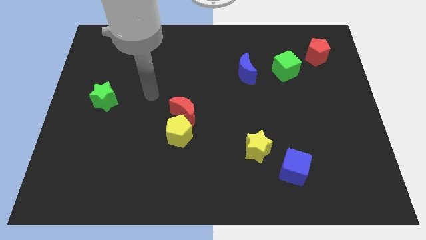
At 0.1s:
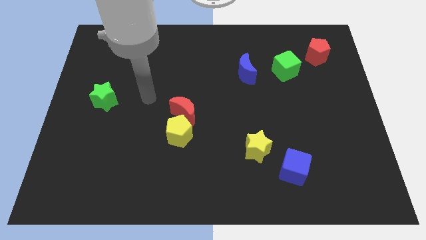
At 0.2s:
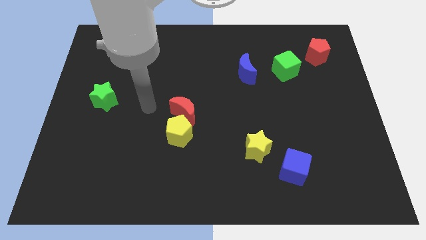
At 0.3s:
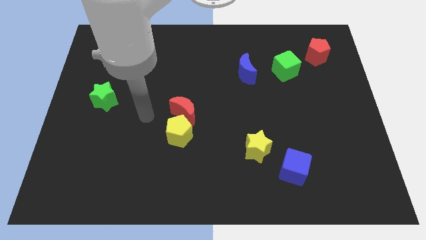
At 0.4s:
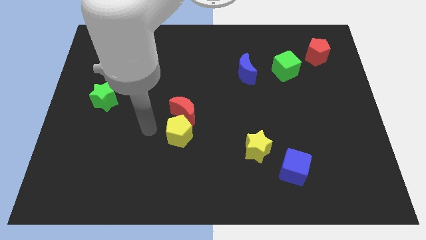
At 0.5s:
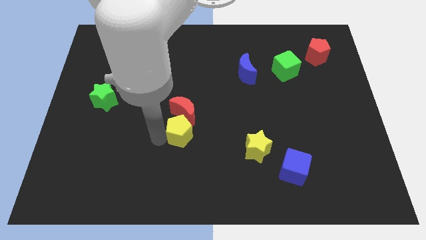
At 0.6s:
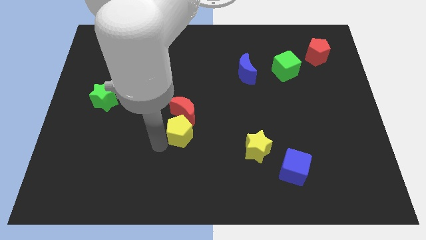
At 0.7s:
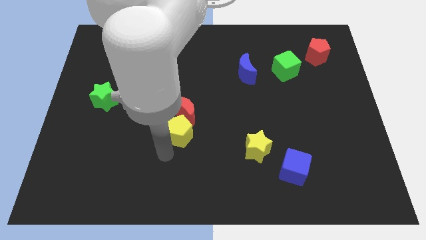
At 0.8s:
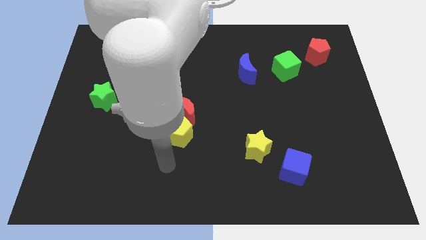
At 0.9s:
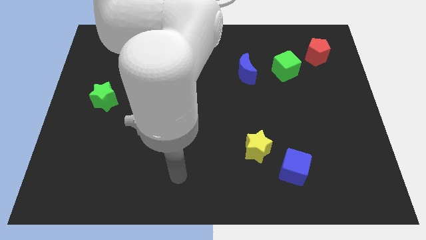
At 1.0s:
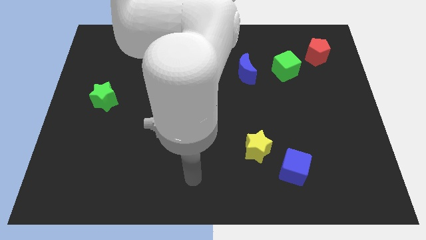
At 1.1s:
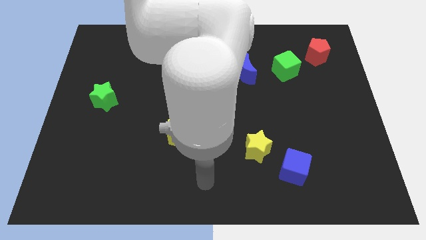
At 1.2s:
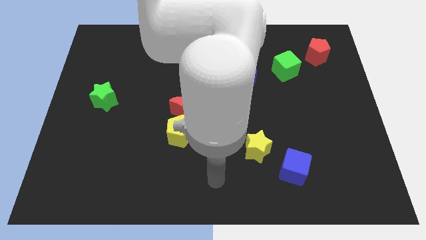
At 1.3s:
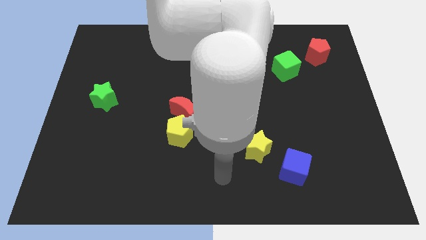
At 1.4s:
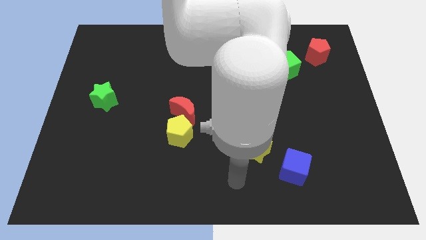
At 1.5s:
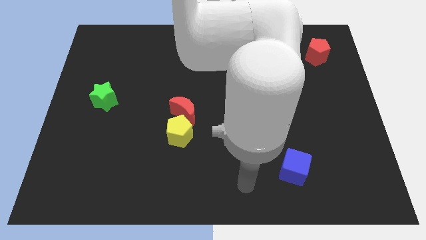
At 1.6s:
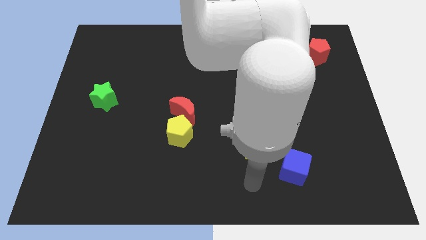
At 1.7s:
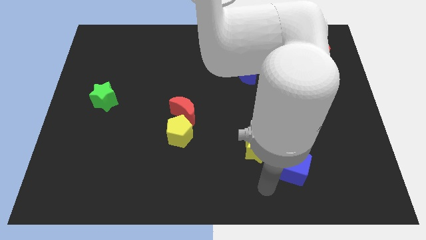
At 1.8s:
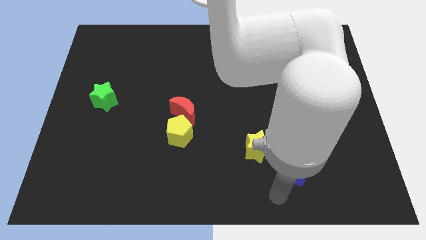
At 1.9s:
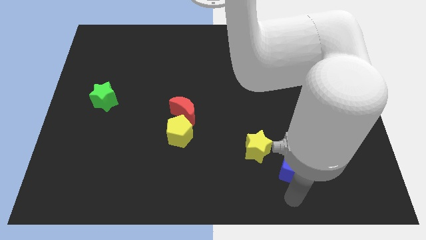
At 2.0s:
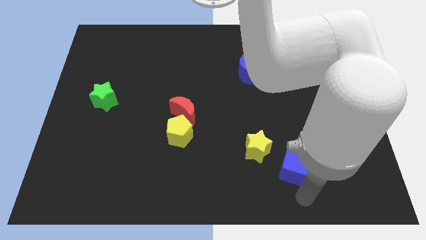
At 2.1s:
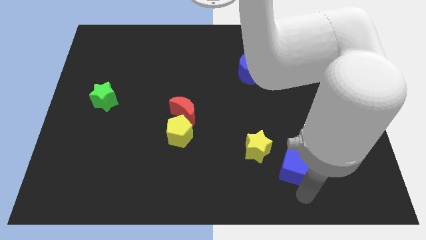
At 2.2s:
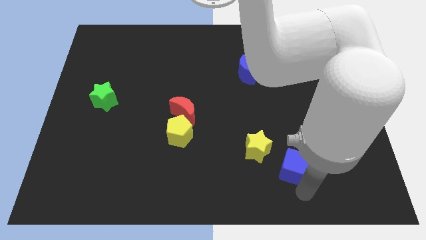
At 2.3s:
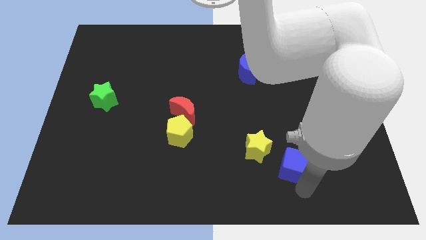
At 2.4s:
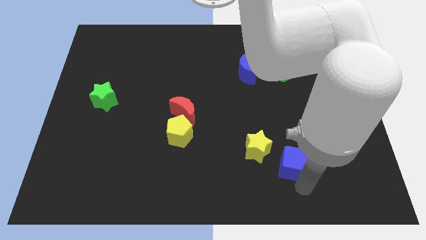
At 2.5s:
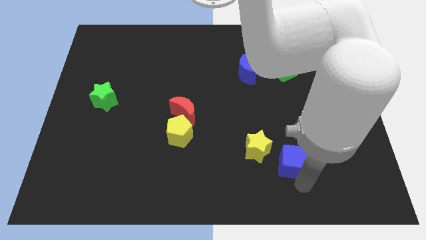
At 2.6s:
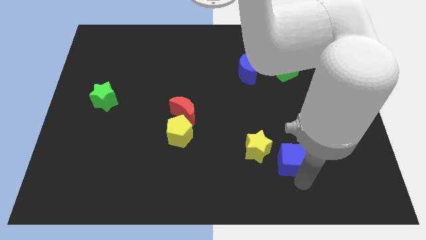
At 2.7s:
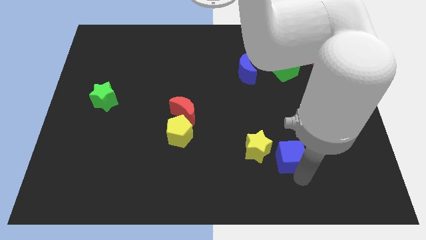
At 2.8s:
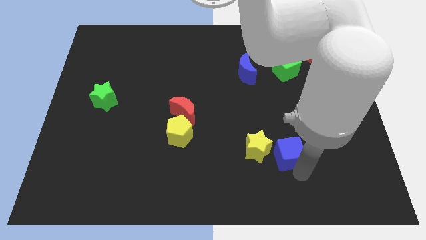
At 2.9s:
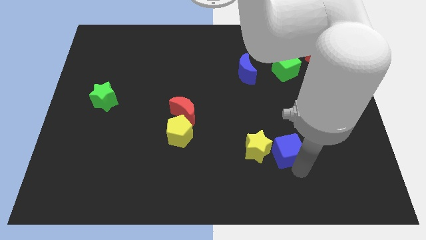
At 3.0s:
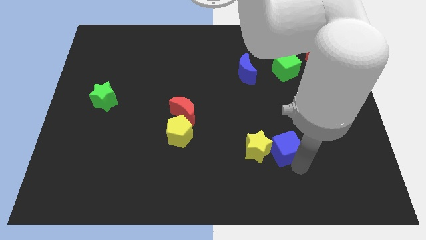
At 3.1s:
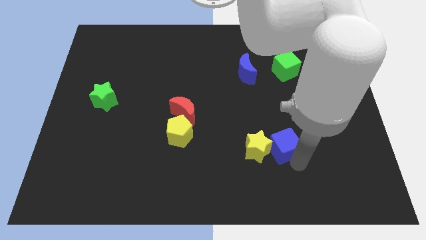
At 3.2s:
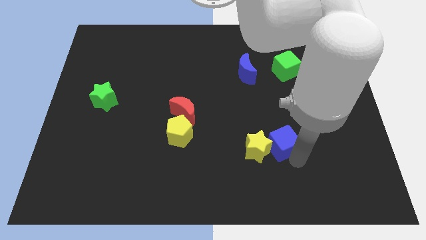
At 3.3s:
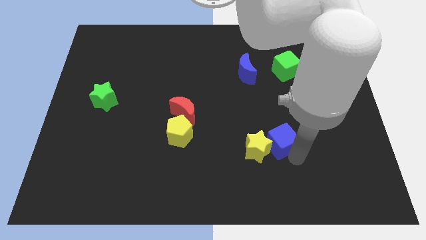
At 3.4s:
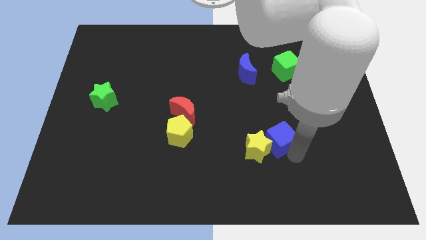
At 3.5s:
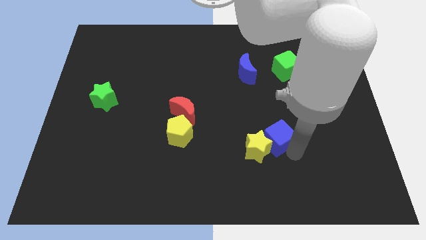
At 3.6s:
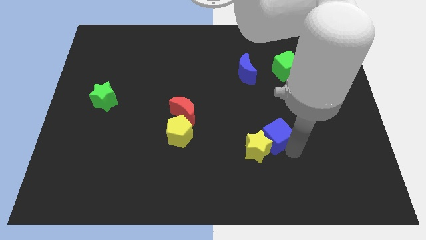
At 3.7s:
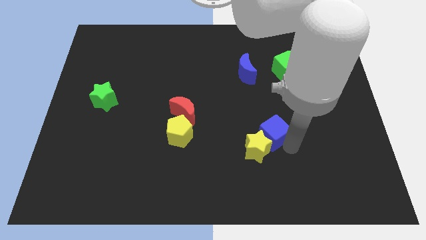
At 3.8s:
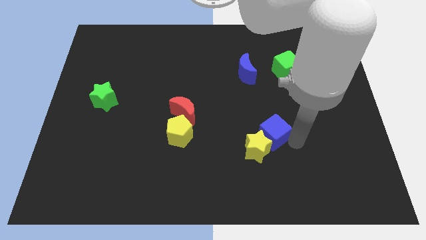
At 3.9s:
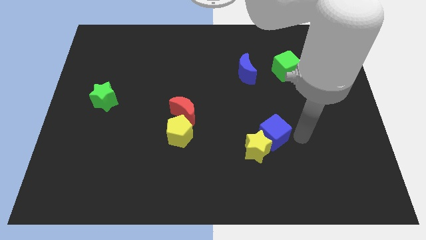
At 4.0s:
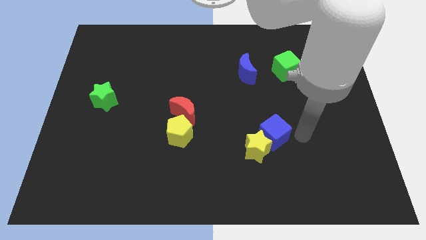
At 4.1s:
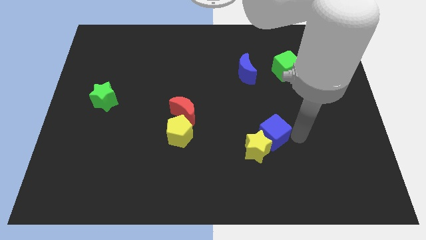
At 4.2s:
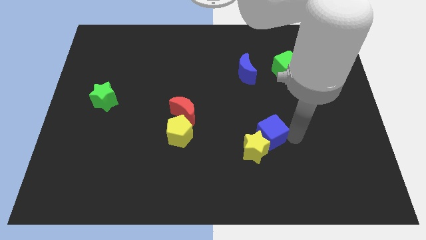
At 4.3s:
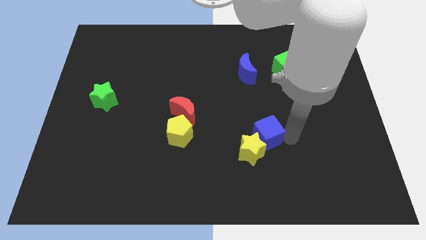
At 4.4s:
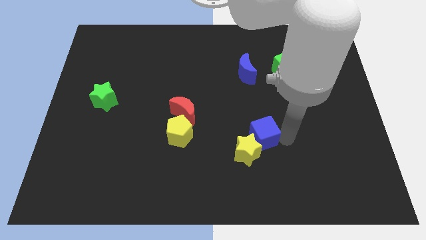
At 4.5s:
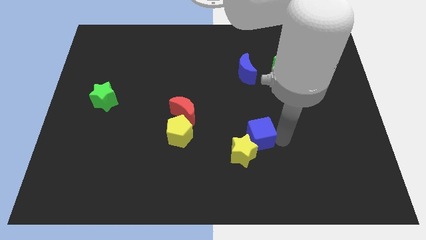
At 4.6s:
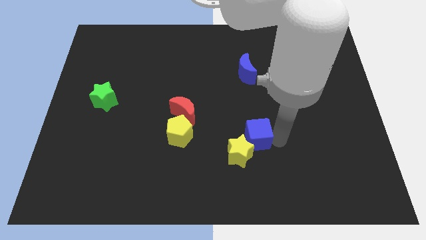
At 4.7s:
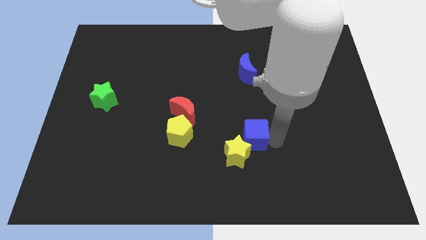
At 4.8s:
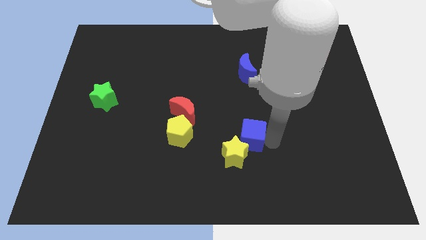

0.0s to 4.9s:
push the blue cube right of the yellow pentagon

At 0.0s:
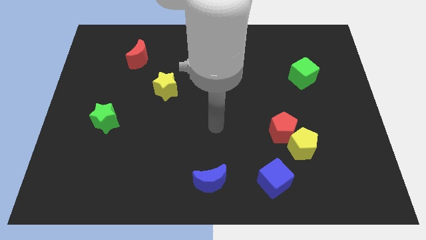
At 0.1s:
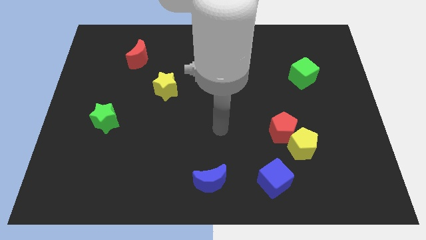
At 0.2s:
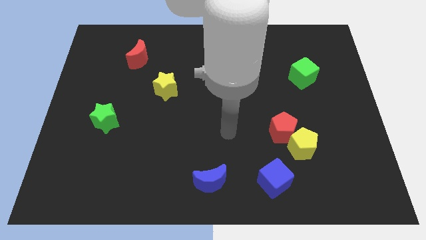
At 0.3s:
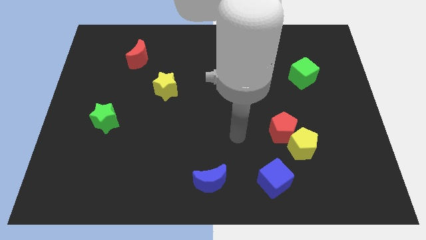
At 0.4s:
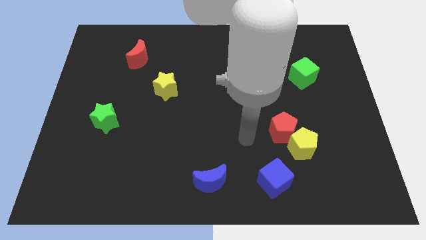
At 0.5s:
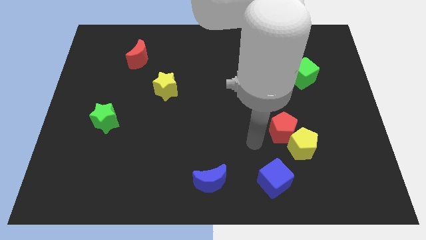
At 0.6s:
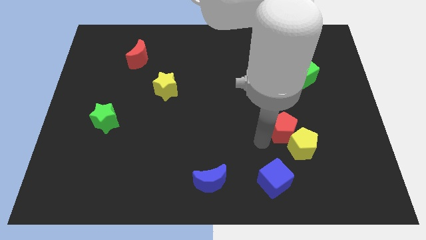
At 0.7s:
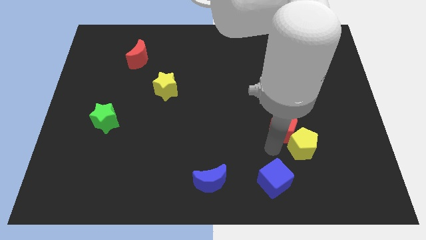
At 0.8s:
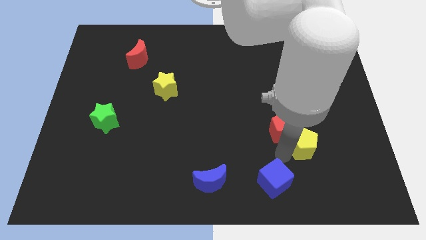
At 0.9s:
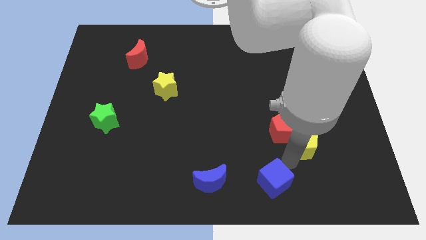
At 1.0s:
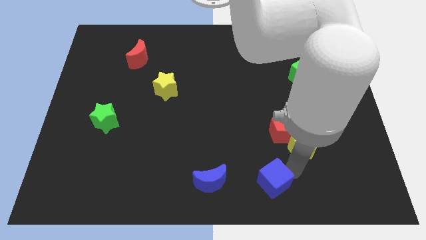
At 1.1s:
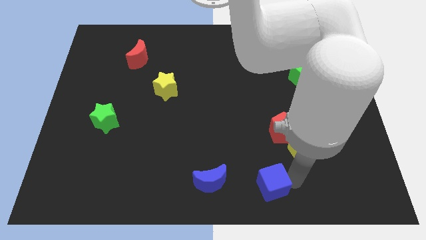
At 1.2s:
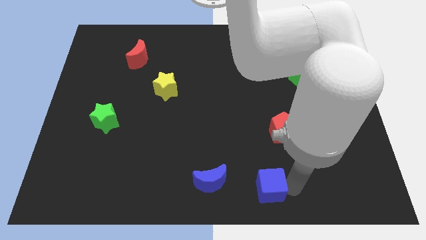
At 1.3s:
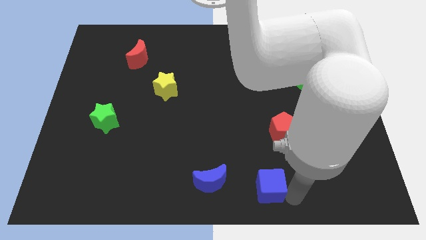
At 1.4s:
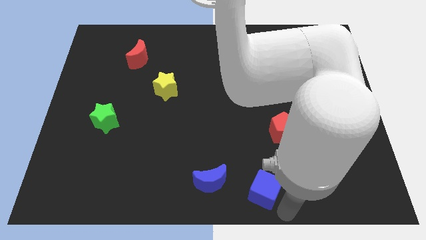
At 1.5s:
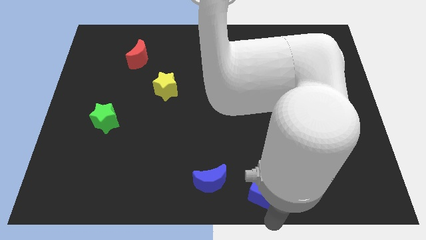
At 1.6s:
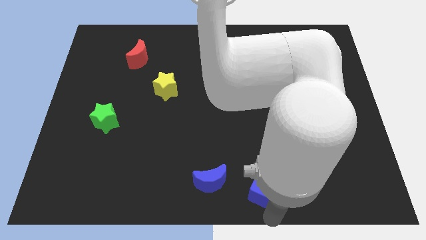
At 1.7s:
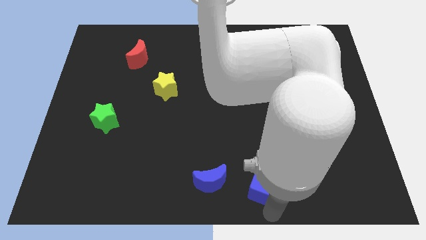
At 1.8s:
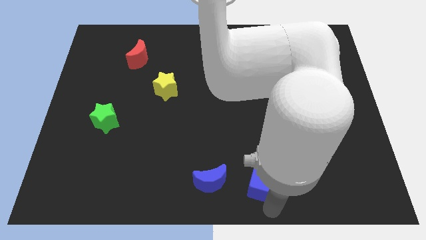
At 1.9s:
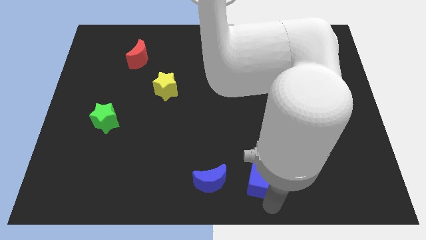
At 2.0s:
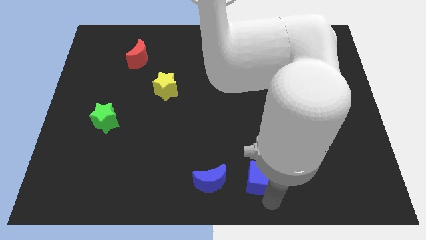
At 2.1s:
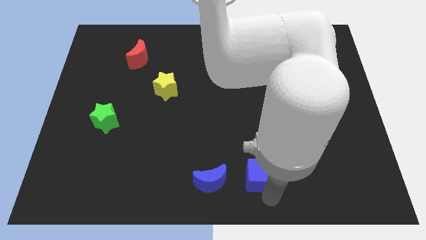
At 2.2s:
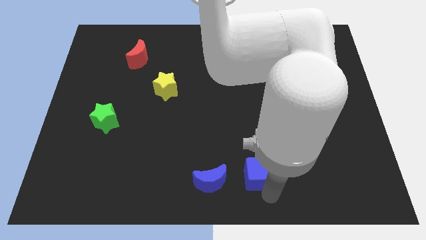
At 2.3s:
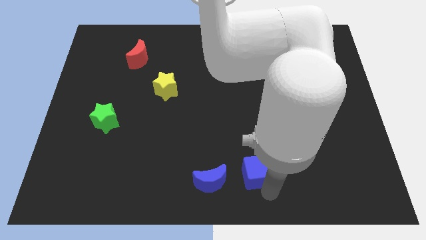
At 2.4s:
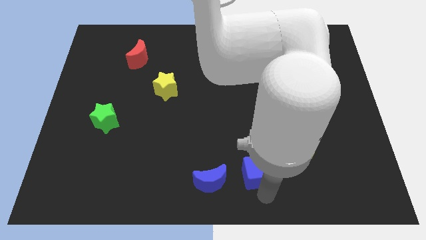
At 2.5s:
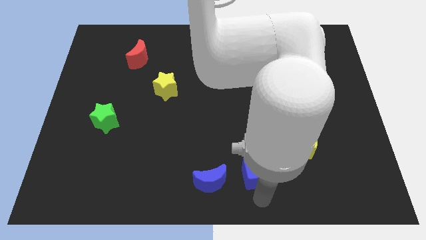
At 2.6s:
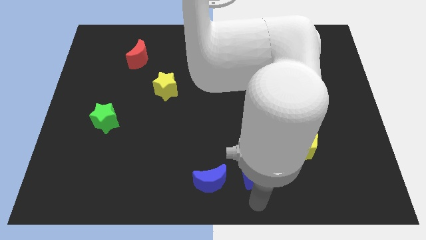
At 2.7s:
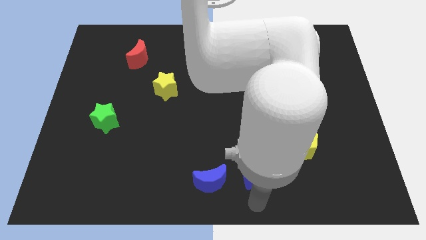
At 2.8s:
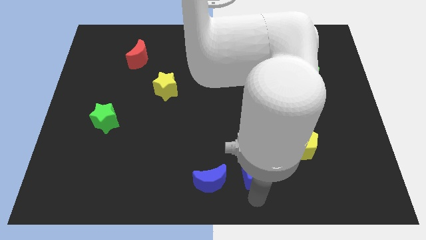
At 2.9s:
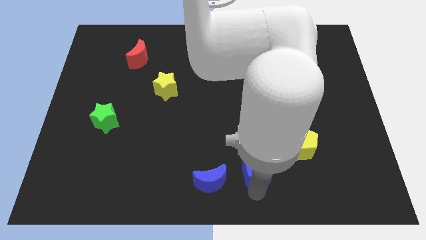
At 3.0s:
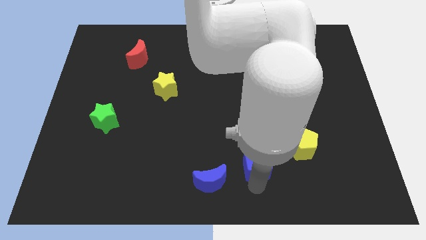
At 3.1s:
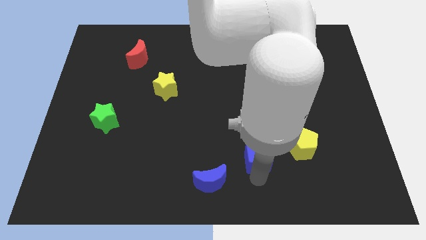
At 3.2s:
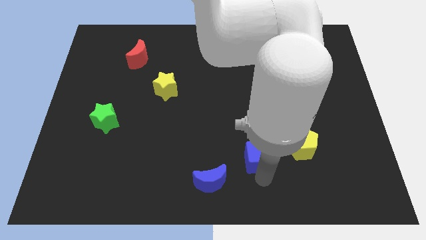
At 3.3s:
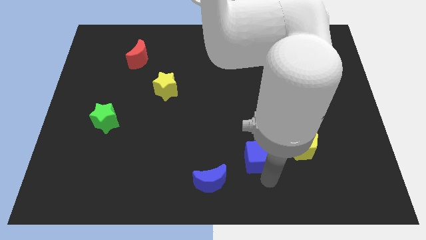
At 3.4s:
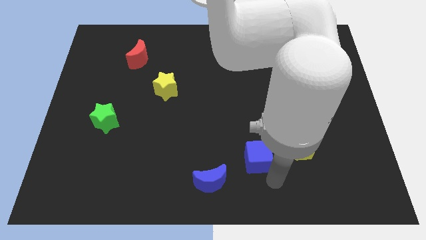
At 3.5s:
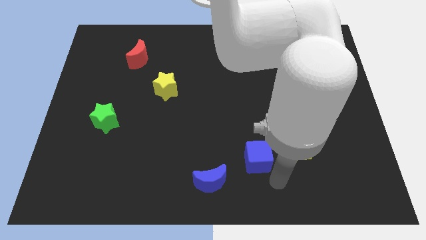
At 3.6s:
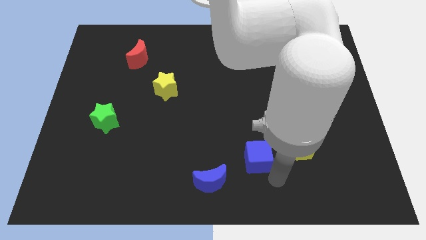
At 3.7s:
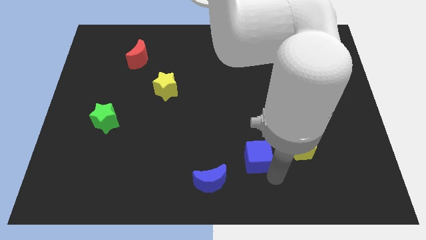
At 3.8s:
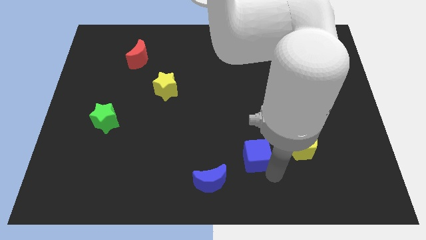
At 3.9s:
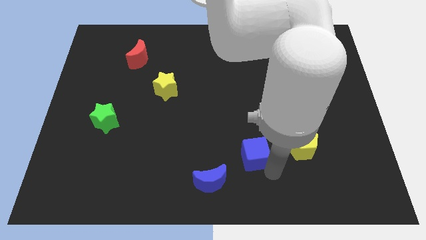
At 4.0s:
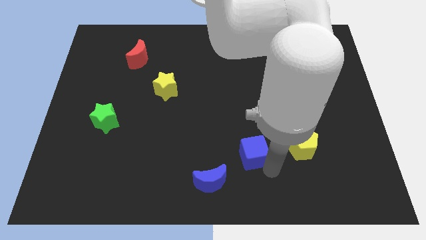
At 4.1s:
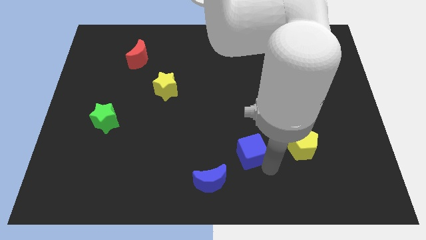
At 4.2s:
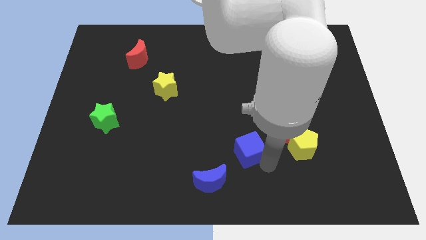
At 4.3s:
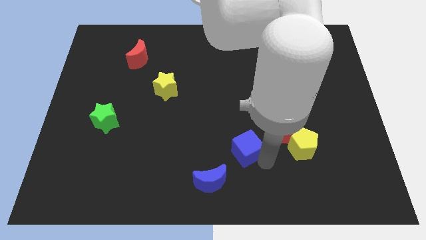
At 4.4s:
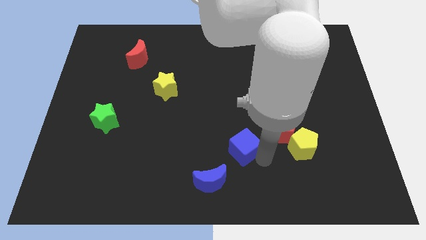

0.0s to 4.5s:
put the blue cube just left of the red pentagon
